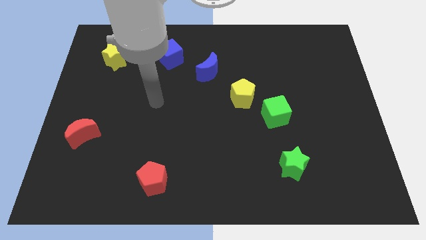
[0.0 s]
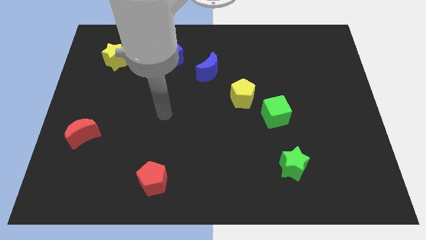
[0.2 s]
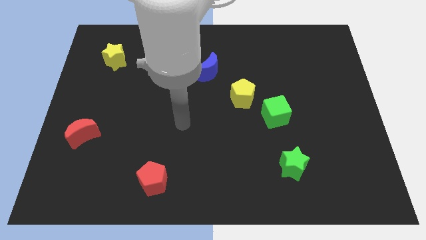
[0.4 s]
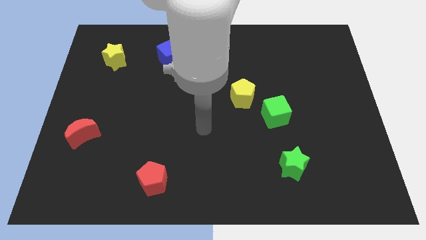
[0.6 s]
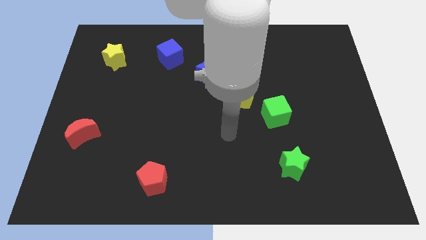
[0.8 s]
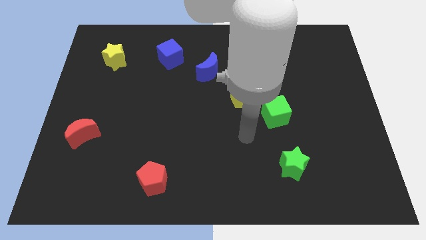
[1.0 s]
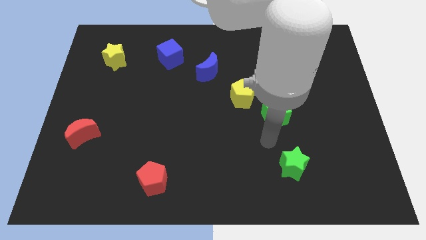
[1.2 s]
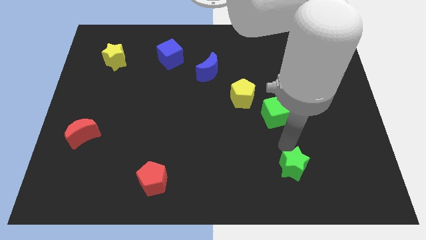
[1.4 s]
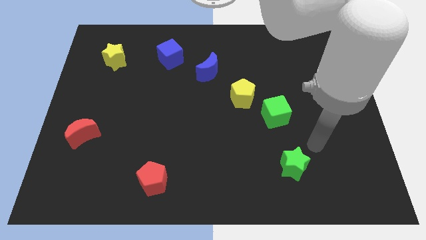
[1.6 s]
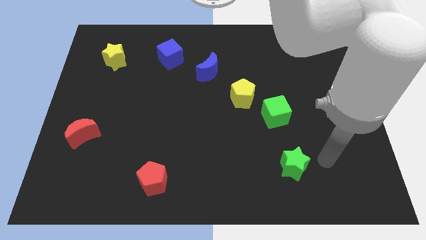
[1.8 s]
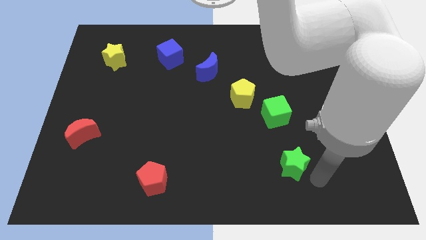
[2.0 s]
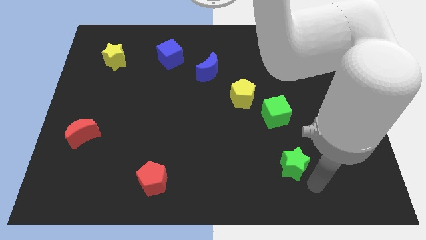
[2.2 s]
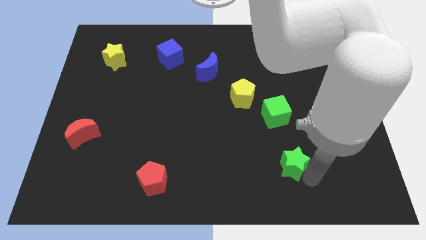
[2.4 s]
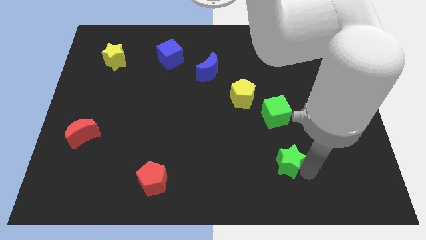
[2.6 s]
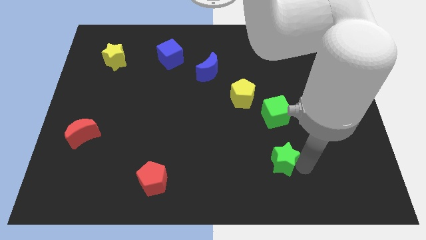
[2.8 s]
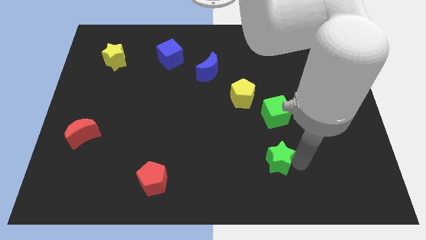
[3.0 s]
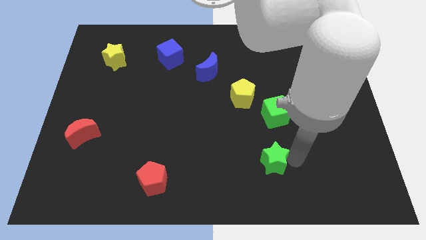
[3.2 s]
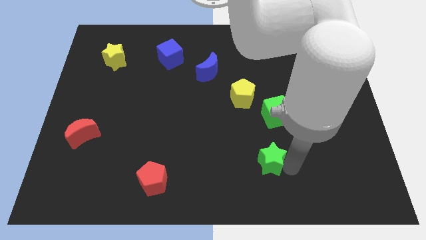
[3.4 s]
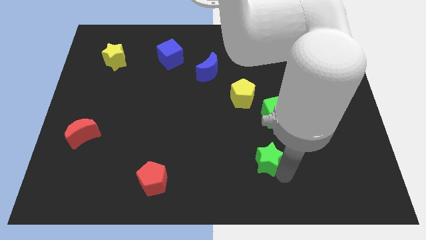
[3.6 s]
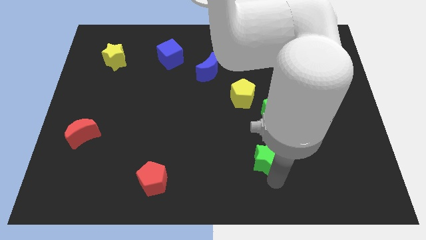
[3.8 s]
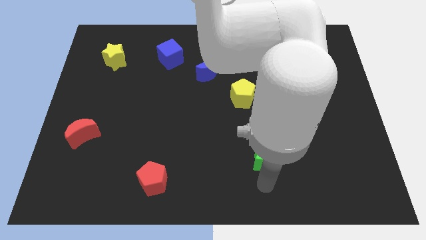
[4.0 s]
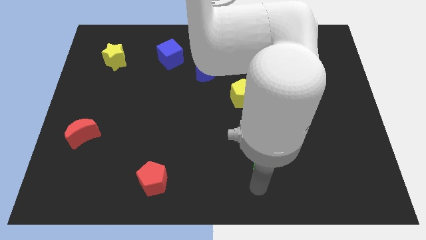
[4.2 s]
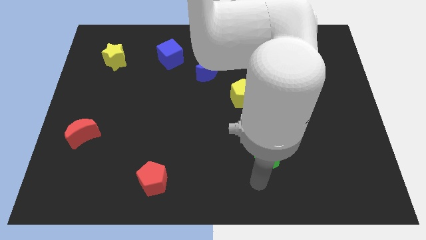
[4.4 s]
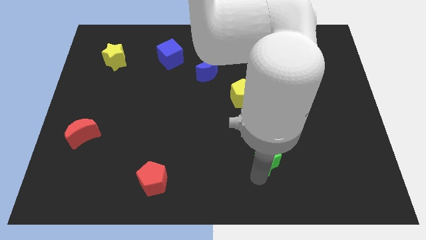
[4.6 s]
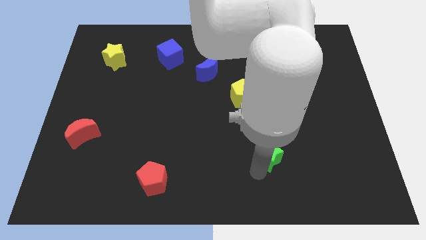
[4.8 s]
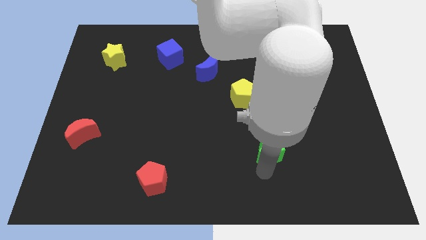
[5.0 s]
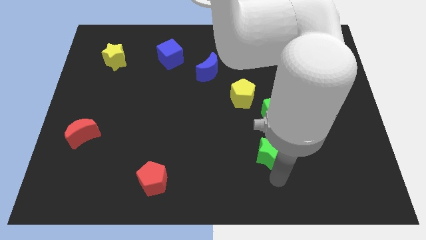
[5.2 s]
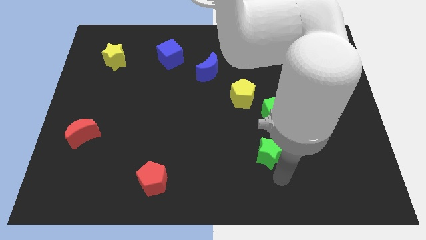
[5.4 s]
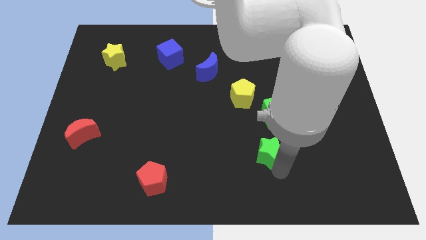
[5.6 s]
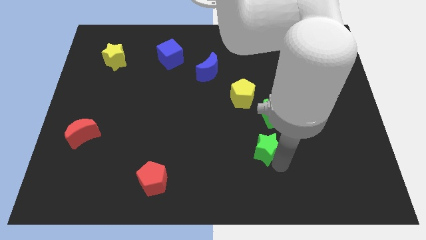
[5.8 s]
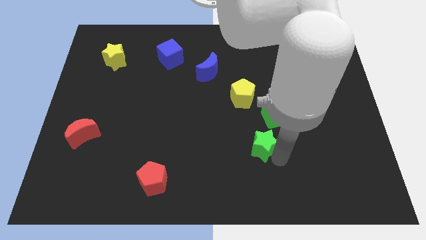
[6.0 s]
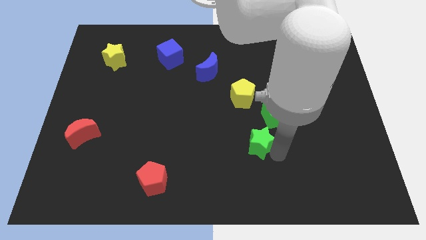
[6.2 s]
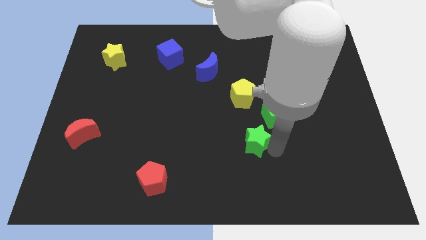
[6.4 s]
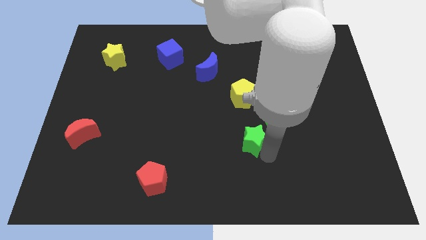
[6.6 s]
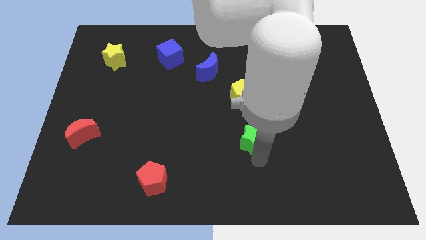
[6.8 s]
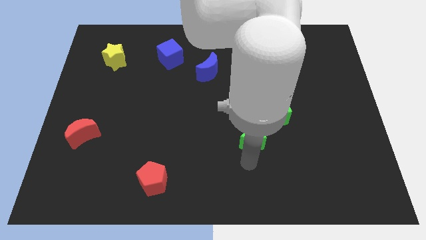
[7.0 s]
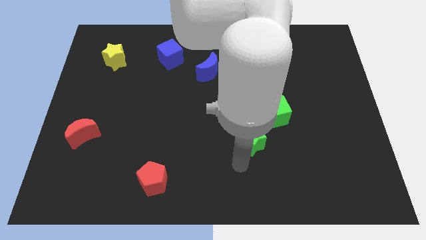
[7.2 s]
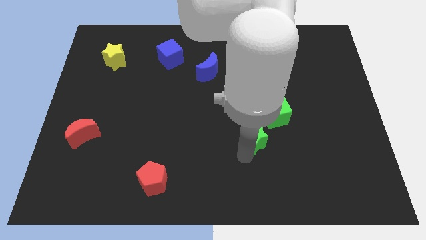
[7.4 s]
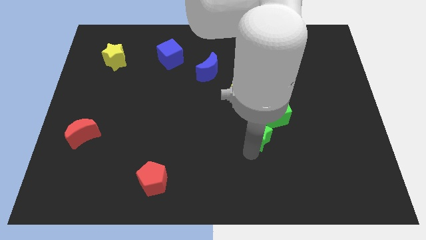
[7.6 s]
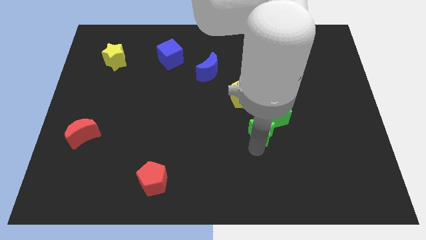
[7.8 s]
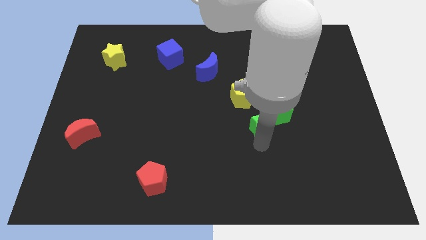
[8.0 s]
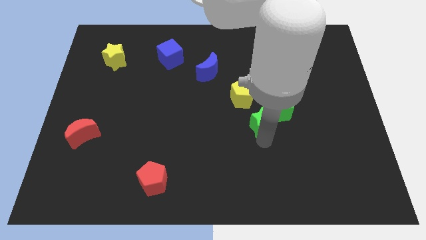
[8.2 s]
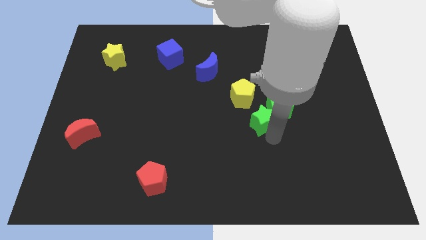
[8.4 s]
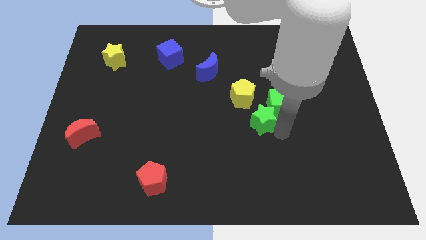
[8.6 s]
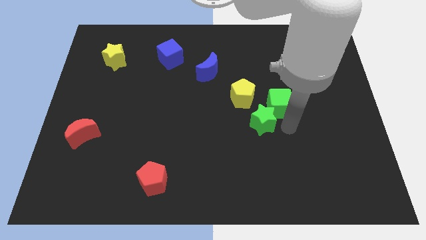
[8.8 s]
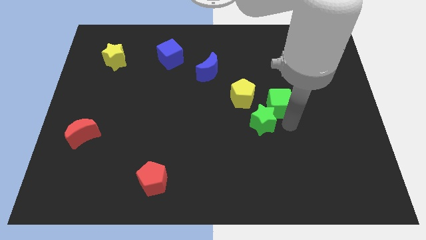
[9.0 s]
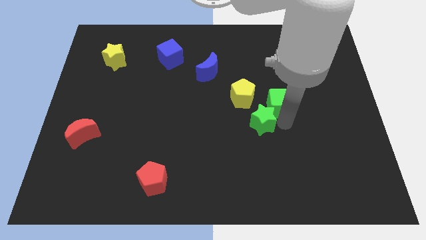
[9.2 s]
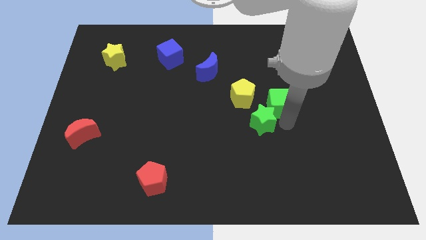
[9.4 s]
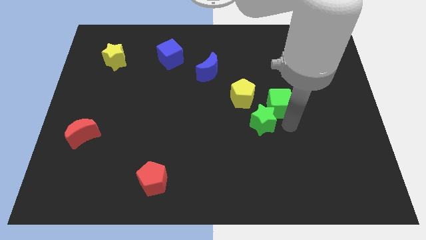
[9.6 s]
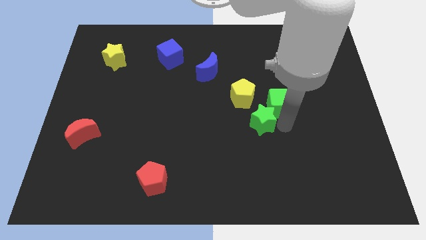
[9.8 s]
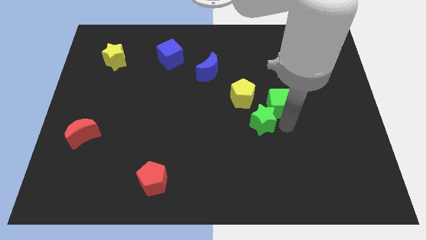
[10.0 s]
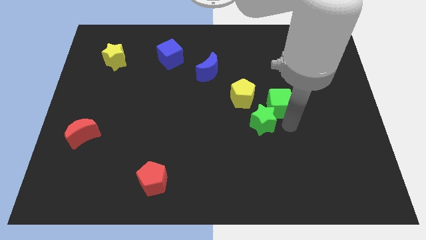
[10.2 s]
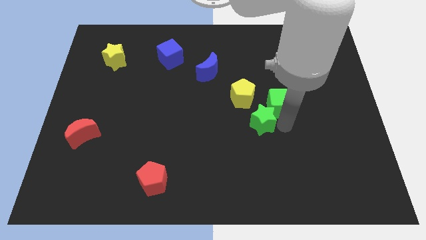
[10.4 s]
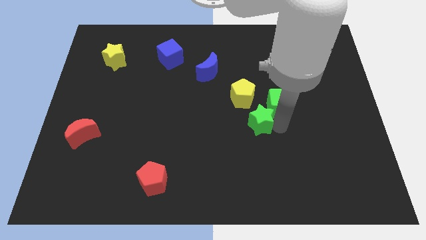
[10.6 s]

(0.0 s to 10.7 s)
put the green star to the center of the board

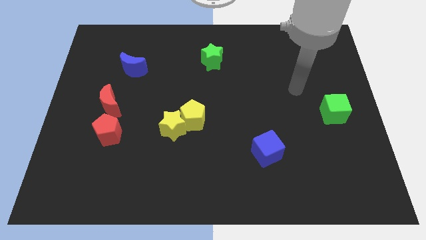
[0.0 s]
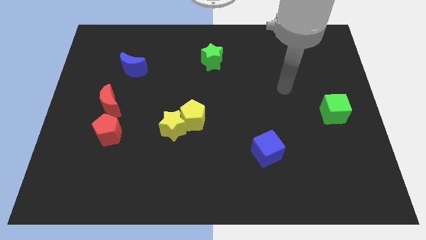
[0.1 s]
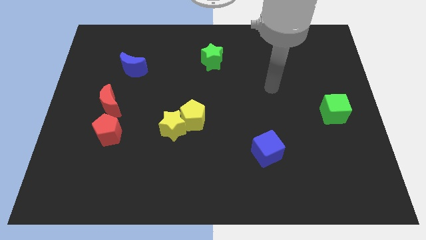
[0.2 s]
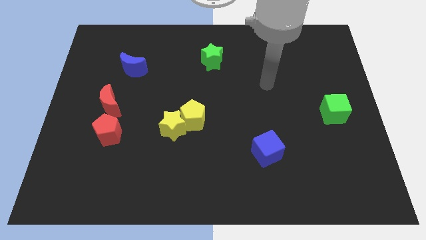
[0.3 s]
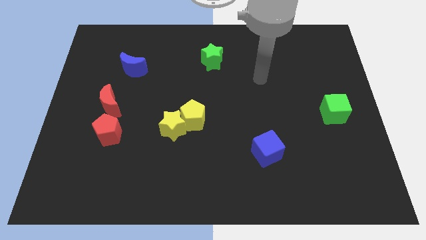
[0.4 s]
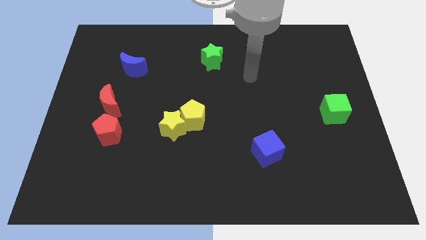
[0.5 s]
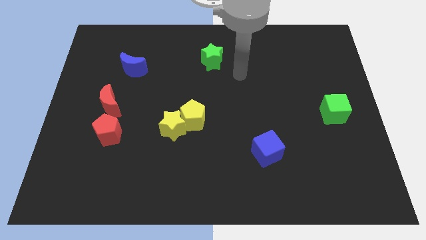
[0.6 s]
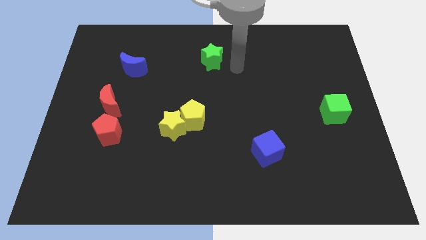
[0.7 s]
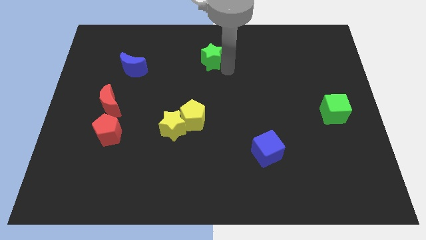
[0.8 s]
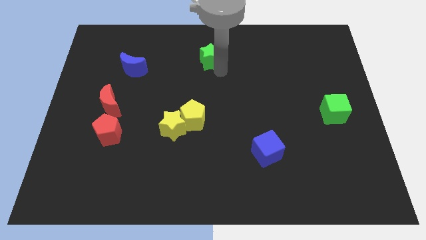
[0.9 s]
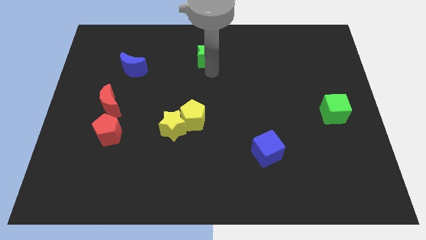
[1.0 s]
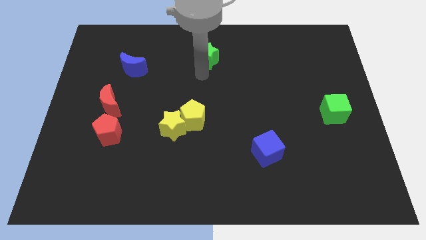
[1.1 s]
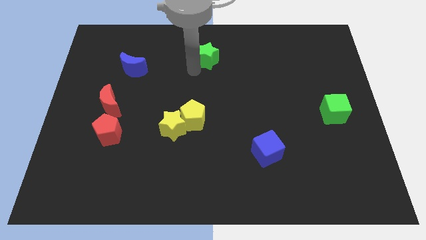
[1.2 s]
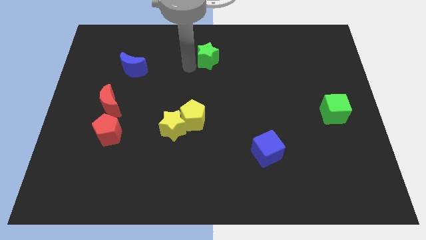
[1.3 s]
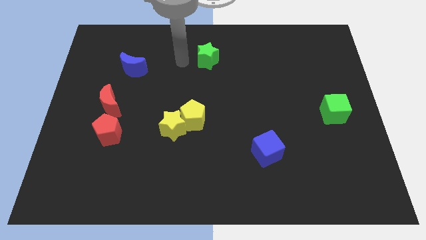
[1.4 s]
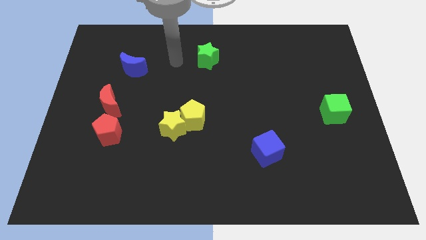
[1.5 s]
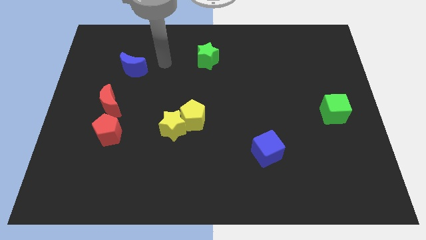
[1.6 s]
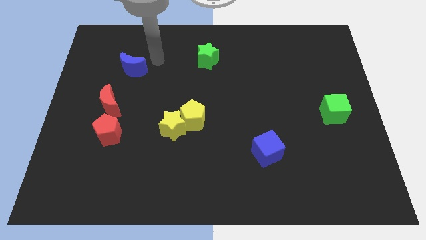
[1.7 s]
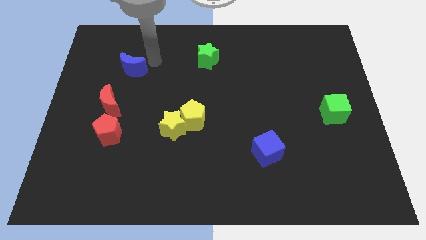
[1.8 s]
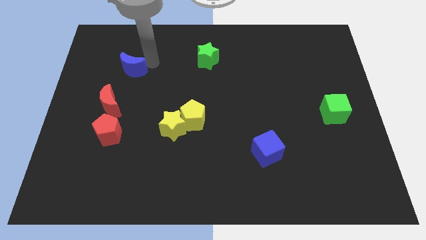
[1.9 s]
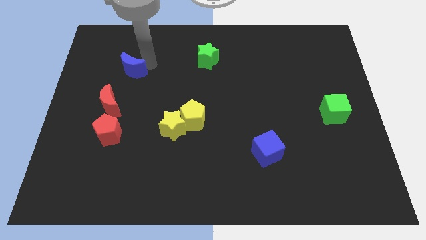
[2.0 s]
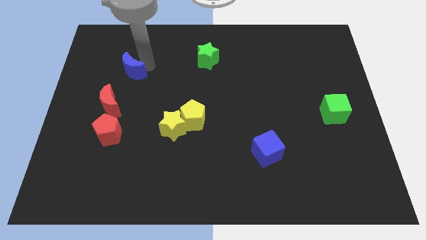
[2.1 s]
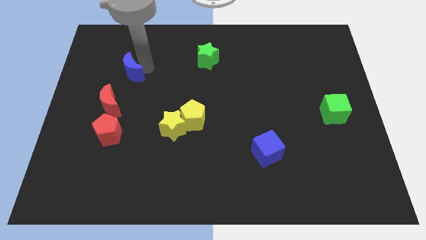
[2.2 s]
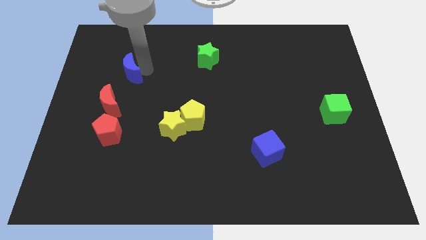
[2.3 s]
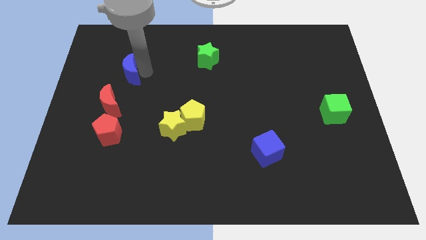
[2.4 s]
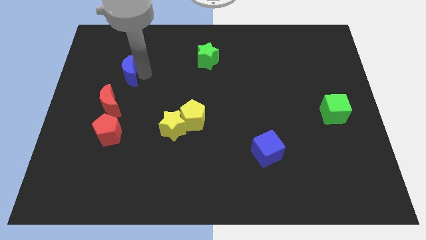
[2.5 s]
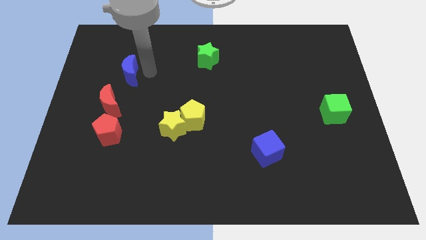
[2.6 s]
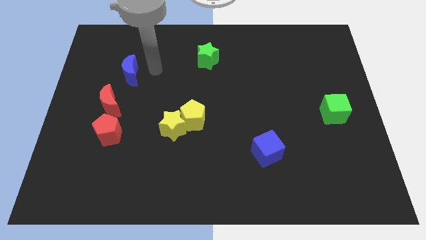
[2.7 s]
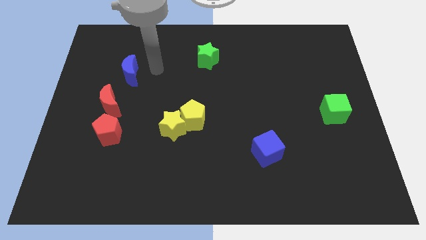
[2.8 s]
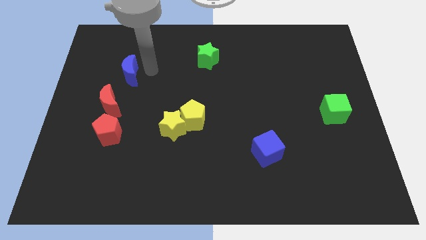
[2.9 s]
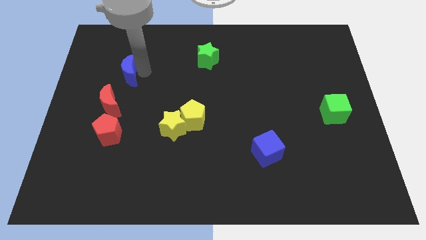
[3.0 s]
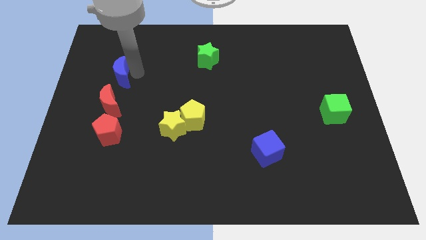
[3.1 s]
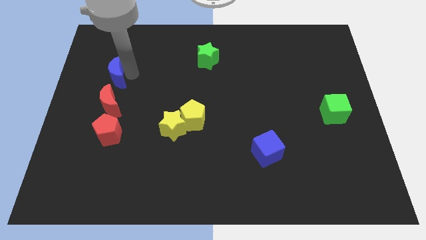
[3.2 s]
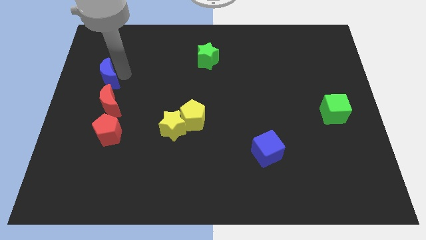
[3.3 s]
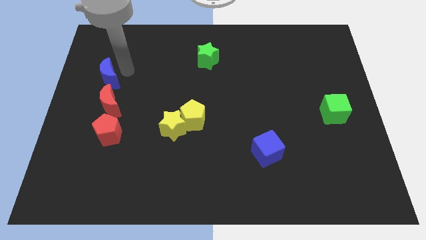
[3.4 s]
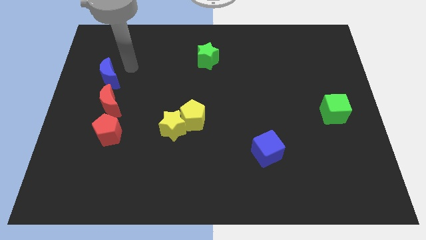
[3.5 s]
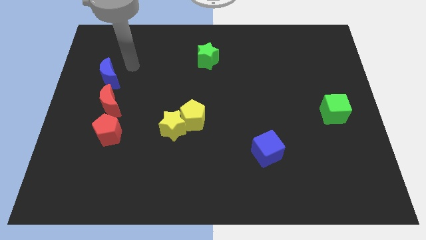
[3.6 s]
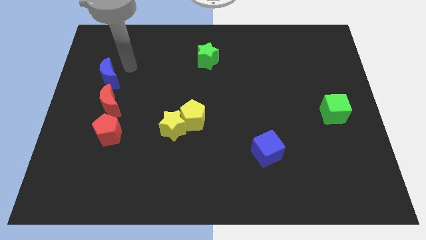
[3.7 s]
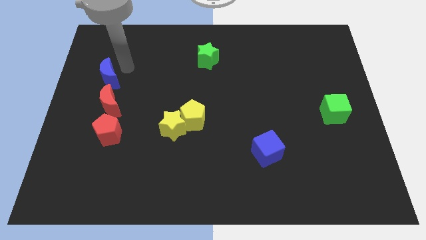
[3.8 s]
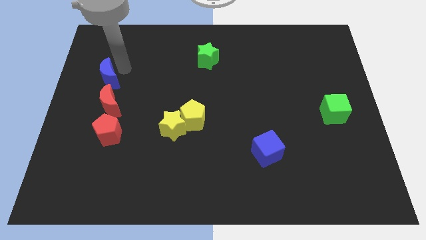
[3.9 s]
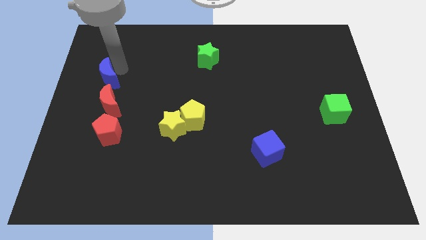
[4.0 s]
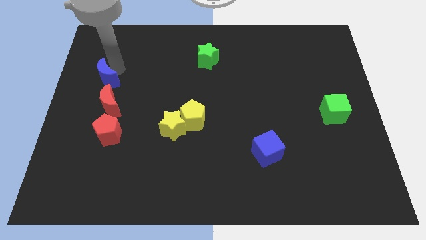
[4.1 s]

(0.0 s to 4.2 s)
put the blue moon to the left side of the board
